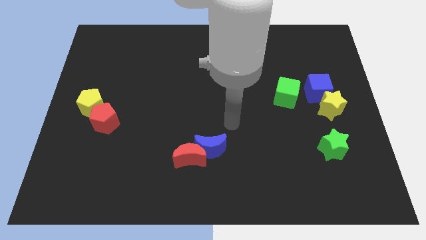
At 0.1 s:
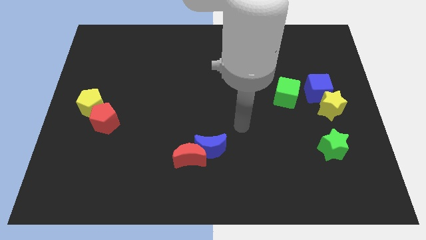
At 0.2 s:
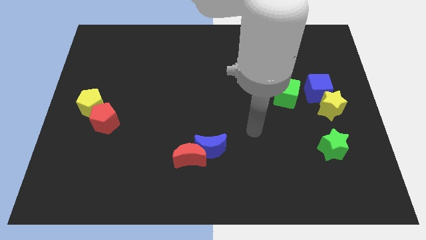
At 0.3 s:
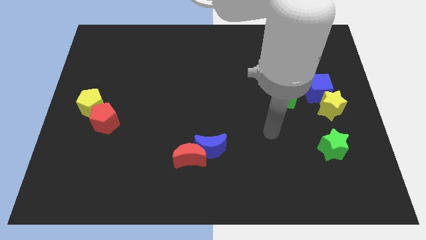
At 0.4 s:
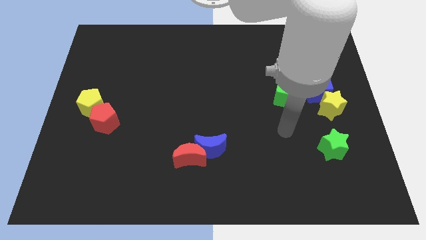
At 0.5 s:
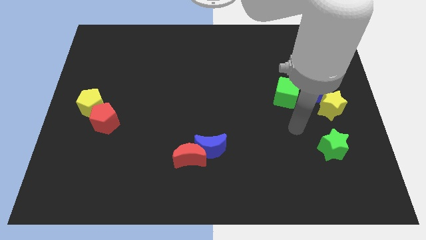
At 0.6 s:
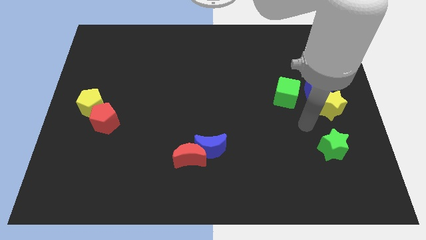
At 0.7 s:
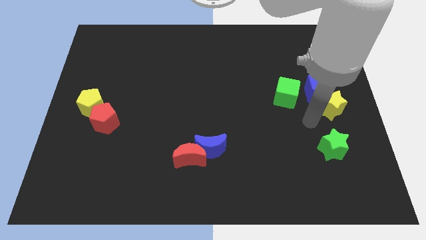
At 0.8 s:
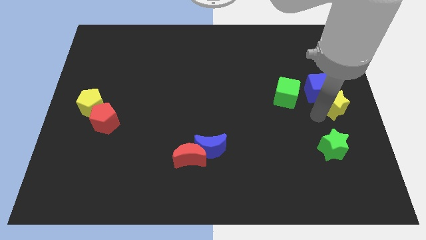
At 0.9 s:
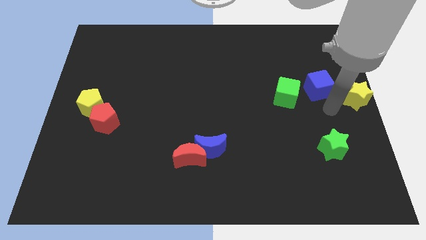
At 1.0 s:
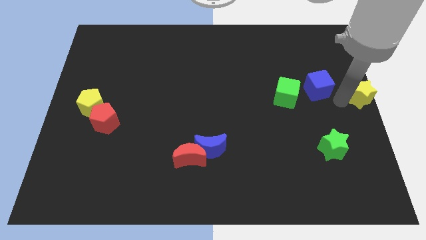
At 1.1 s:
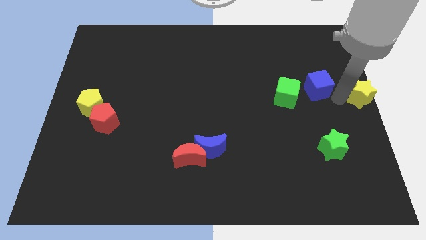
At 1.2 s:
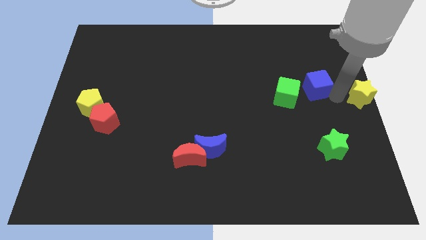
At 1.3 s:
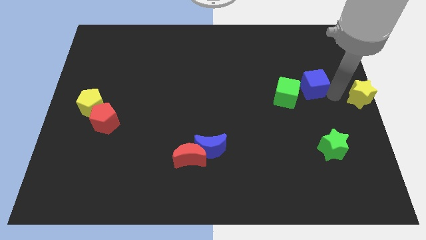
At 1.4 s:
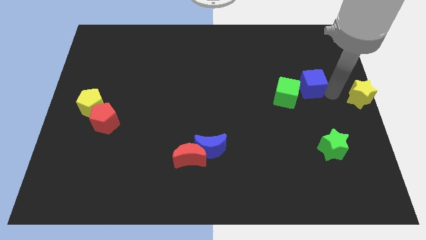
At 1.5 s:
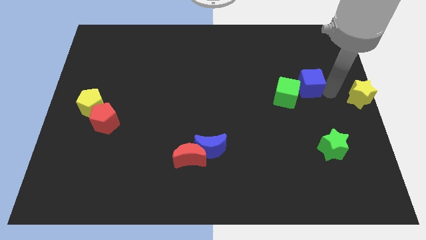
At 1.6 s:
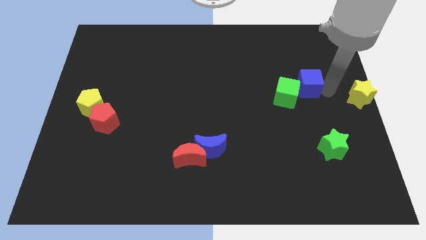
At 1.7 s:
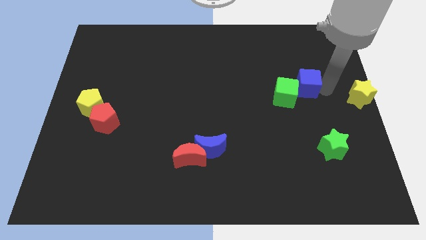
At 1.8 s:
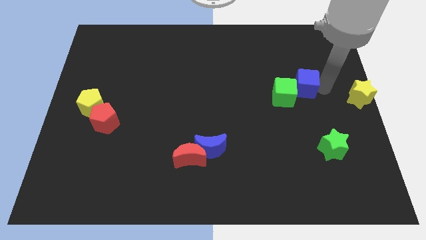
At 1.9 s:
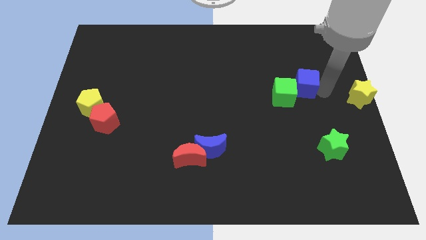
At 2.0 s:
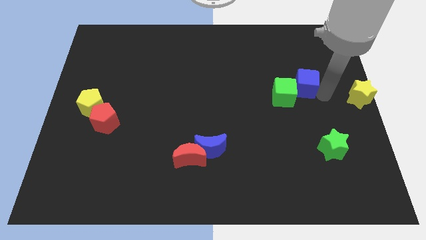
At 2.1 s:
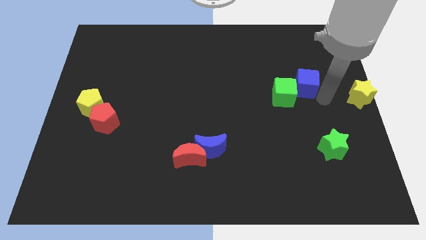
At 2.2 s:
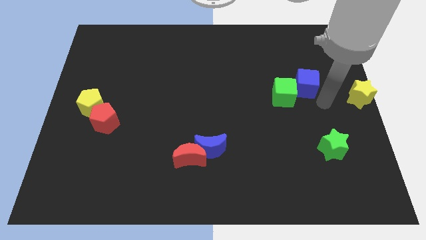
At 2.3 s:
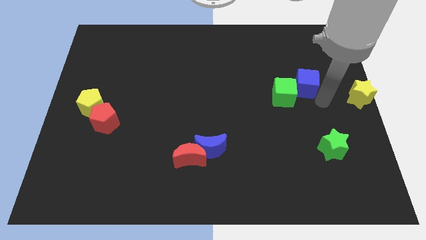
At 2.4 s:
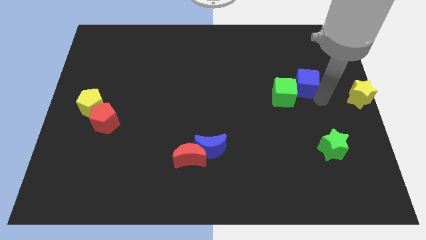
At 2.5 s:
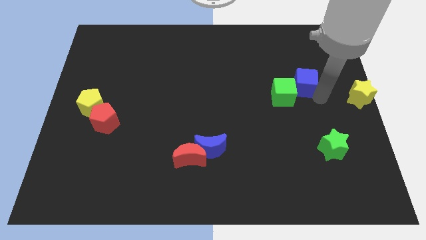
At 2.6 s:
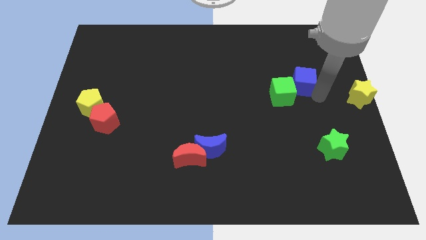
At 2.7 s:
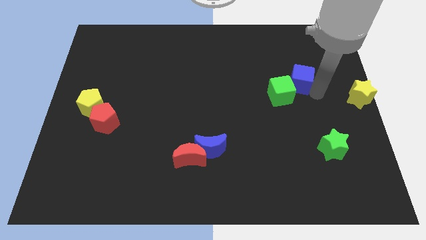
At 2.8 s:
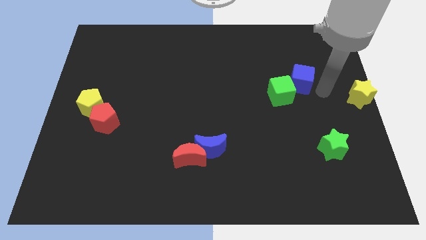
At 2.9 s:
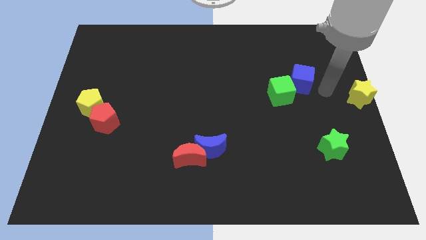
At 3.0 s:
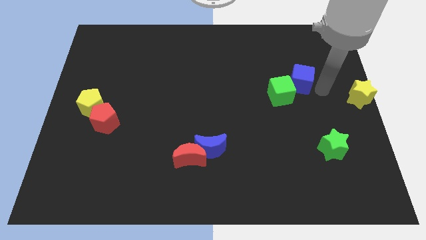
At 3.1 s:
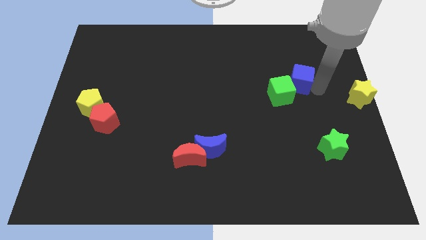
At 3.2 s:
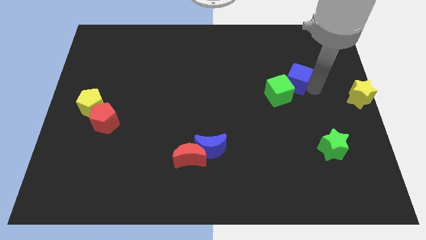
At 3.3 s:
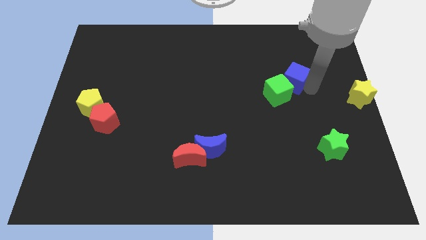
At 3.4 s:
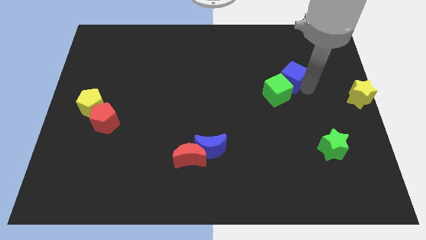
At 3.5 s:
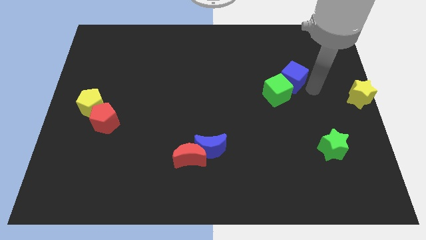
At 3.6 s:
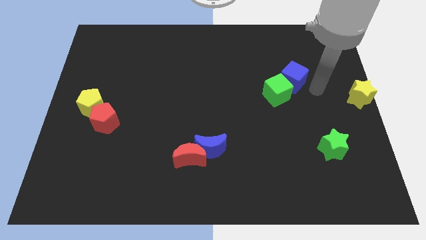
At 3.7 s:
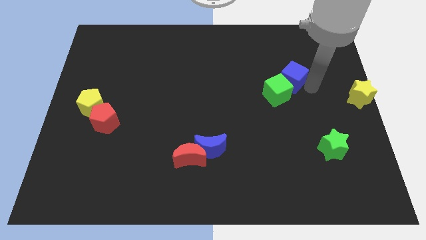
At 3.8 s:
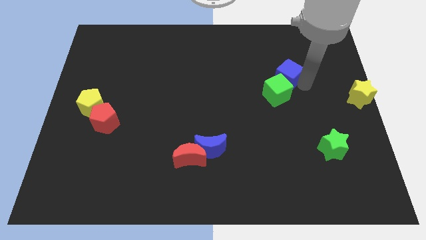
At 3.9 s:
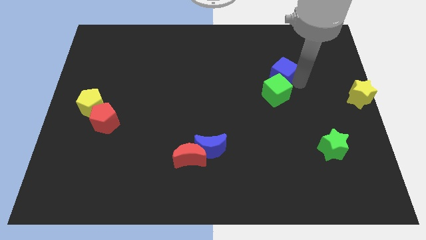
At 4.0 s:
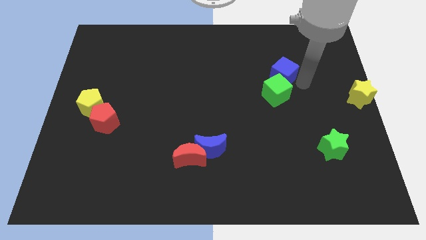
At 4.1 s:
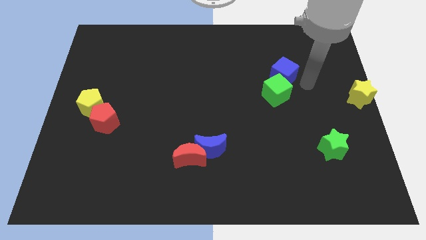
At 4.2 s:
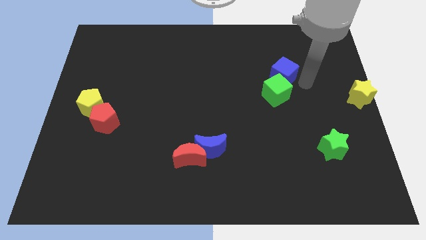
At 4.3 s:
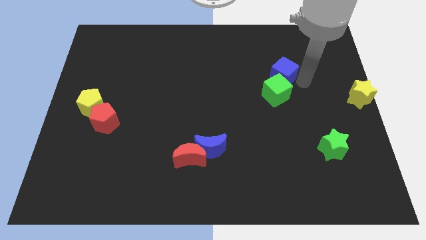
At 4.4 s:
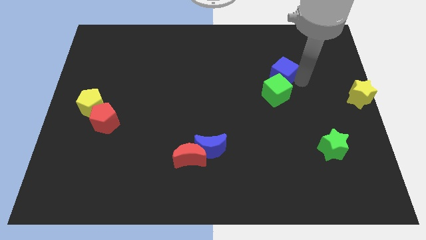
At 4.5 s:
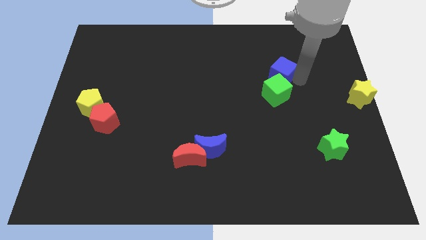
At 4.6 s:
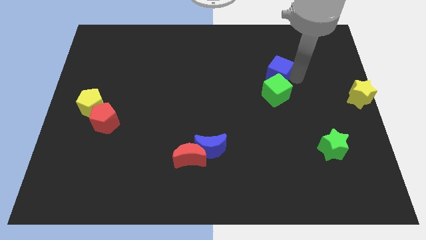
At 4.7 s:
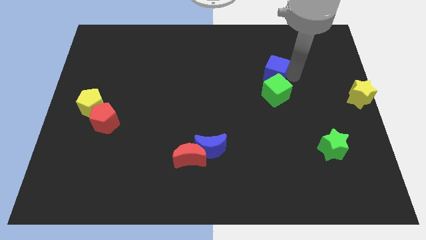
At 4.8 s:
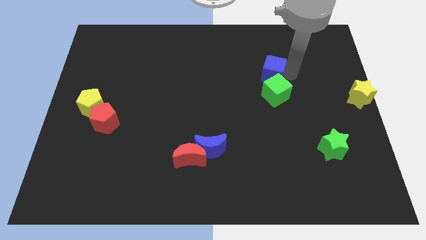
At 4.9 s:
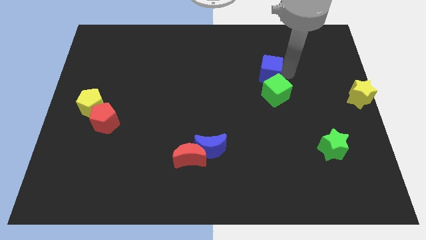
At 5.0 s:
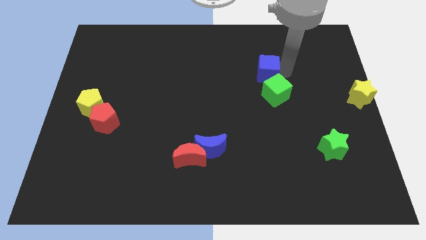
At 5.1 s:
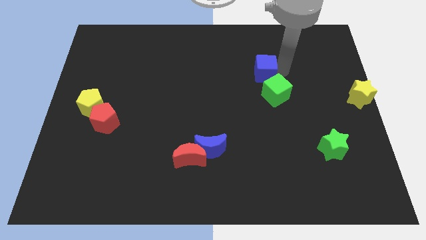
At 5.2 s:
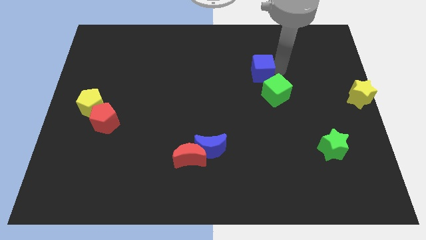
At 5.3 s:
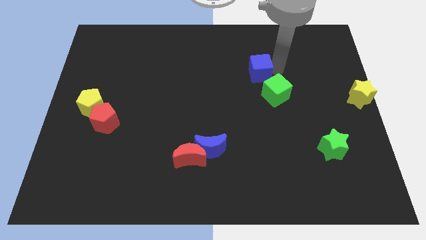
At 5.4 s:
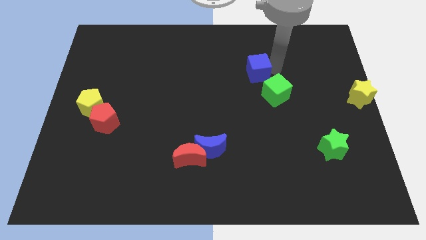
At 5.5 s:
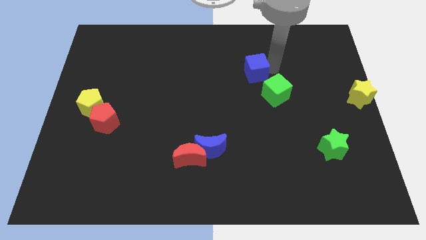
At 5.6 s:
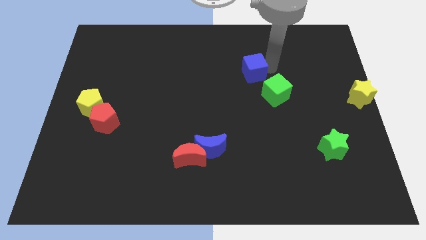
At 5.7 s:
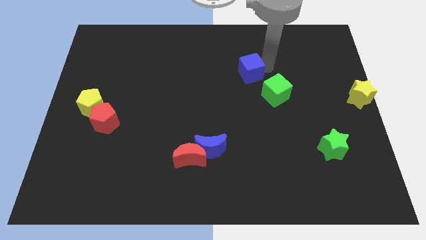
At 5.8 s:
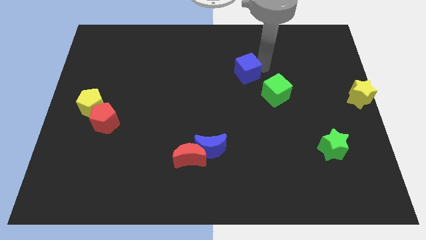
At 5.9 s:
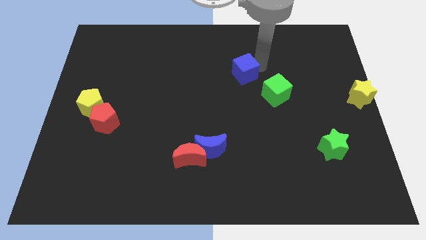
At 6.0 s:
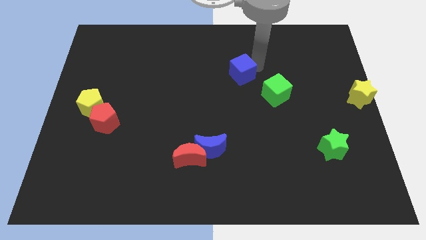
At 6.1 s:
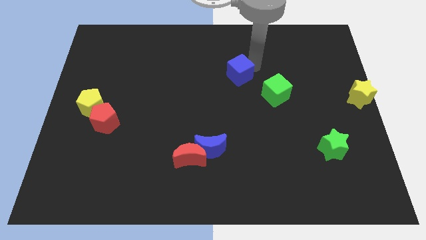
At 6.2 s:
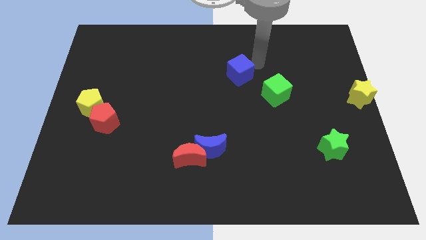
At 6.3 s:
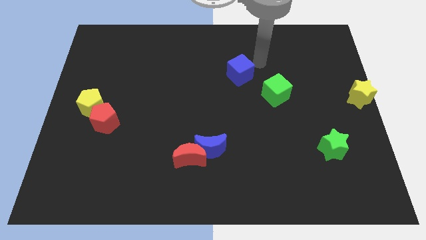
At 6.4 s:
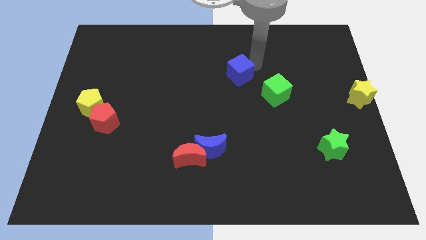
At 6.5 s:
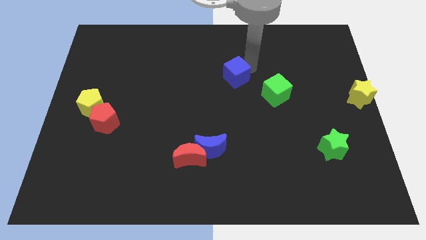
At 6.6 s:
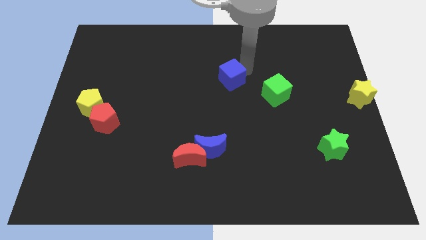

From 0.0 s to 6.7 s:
push the blue cube to the left

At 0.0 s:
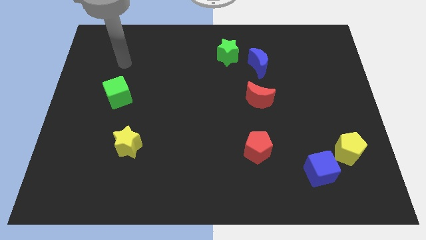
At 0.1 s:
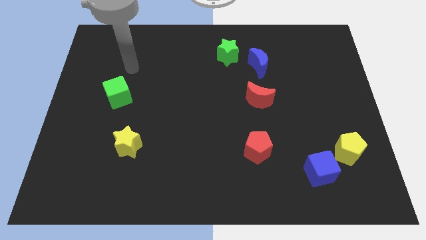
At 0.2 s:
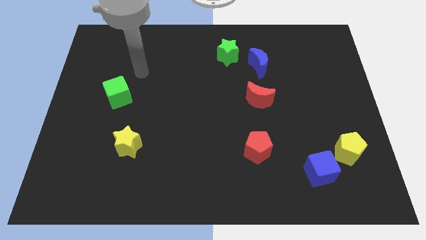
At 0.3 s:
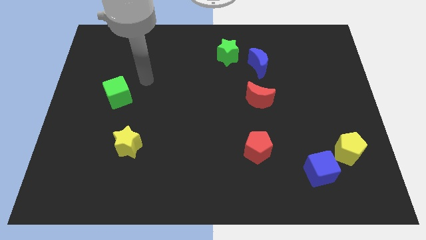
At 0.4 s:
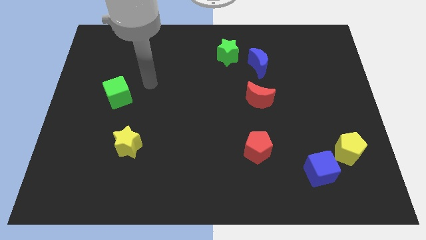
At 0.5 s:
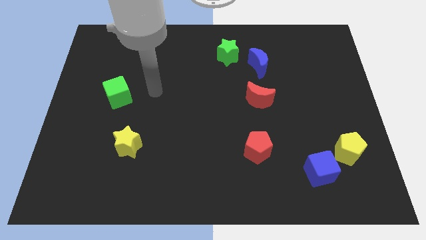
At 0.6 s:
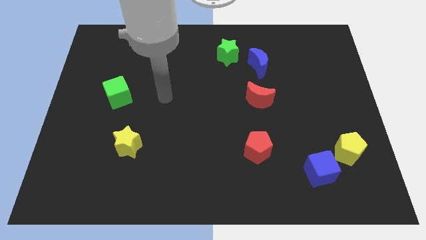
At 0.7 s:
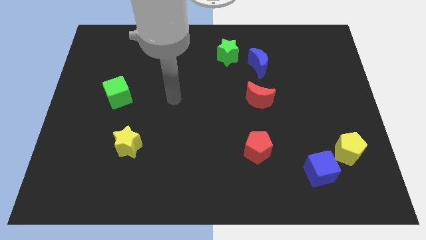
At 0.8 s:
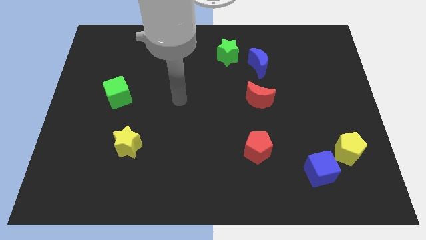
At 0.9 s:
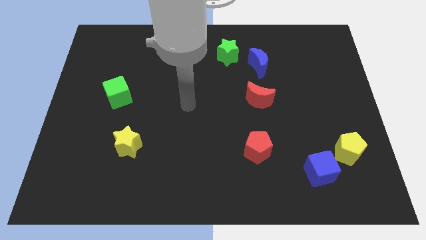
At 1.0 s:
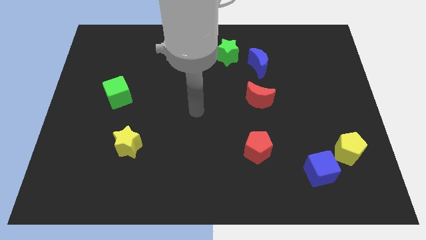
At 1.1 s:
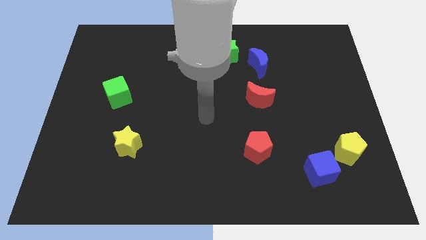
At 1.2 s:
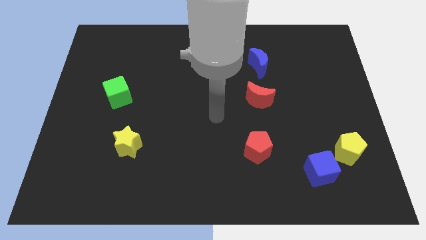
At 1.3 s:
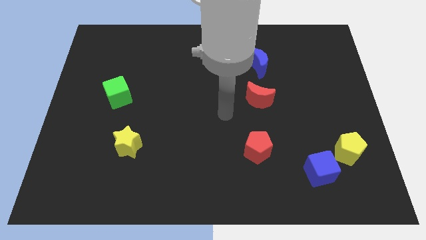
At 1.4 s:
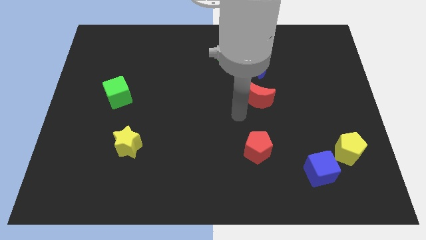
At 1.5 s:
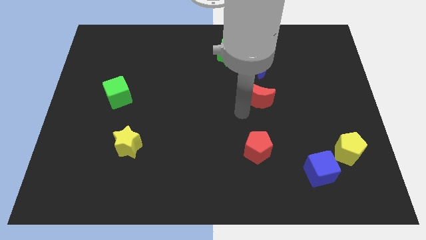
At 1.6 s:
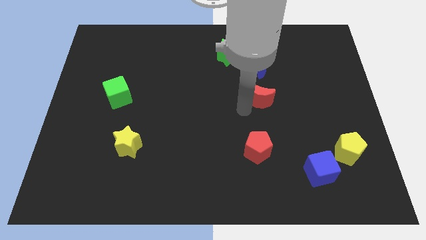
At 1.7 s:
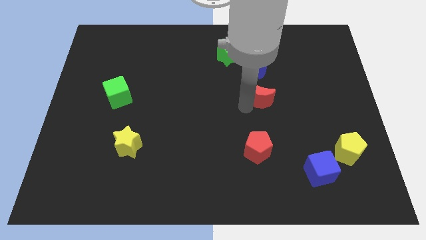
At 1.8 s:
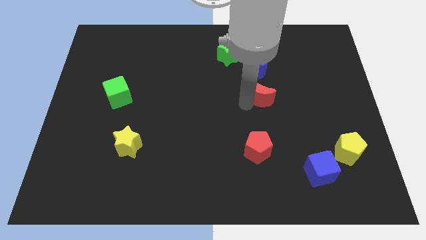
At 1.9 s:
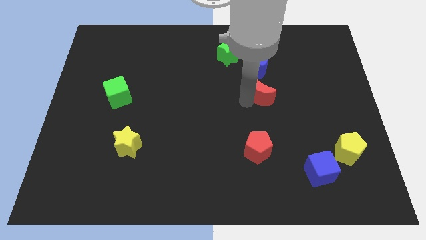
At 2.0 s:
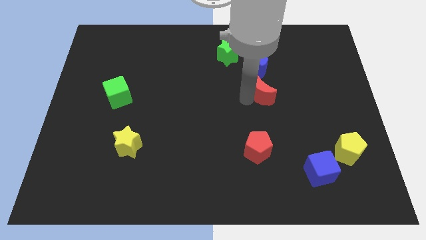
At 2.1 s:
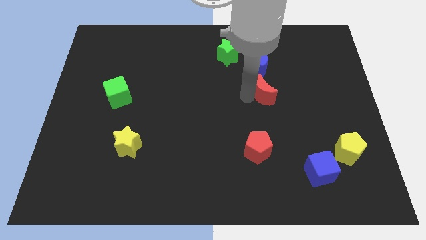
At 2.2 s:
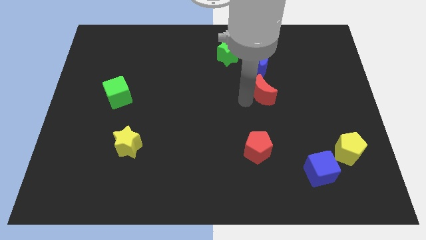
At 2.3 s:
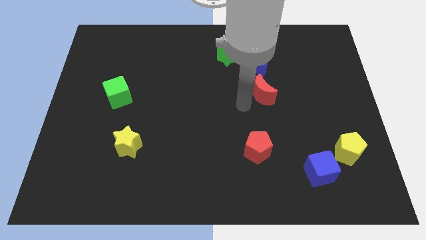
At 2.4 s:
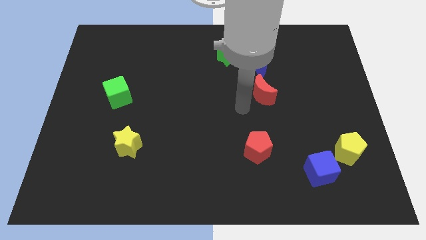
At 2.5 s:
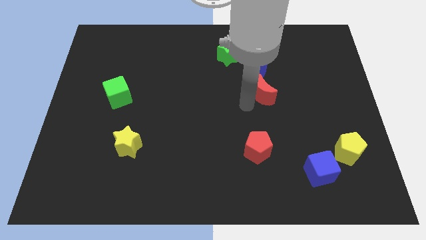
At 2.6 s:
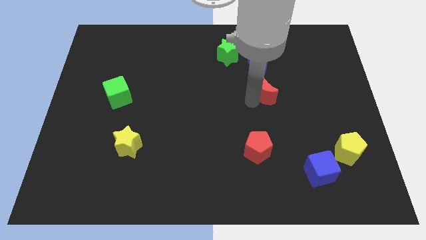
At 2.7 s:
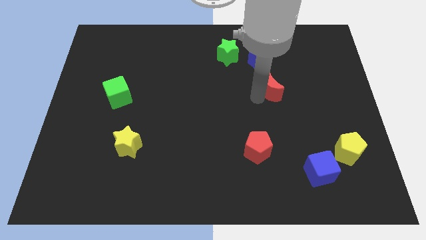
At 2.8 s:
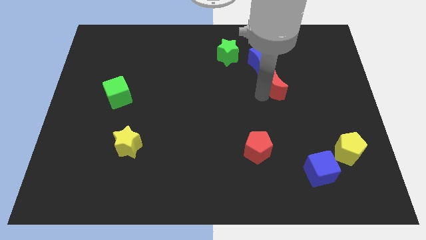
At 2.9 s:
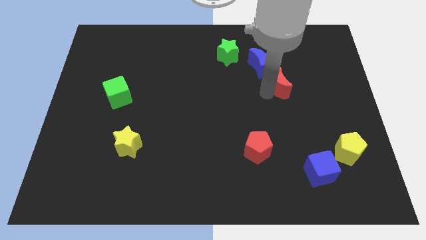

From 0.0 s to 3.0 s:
slide the red moon upwards and then to the right a bit
